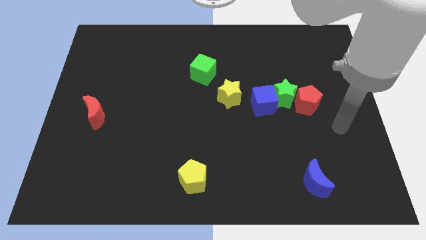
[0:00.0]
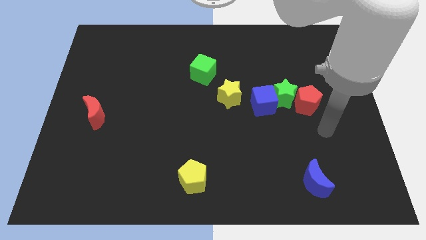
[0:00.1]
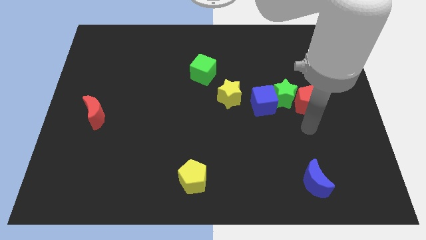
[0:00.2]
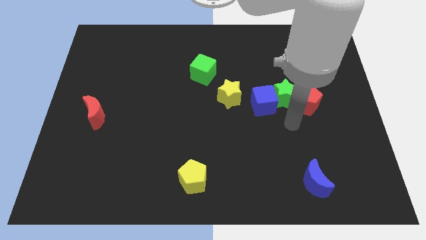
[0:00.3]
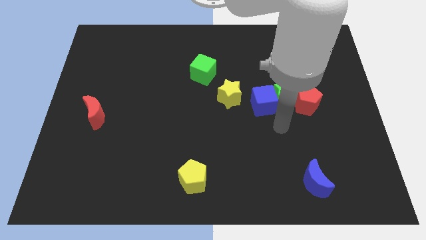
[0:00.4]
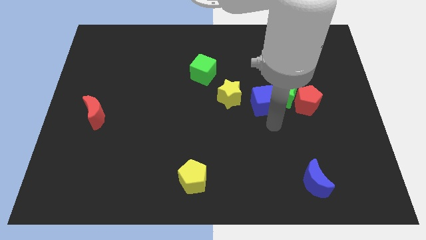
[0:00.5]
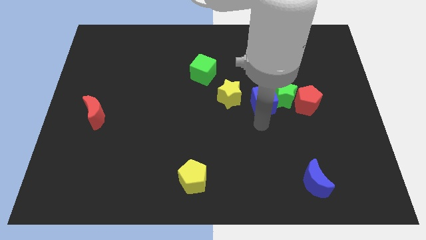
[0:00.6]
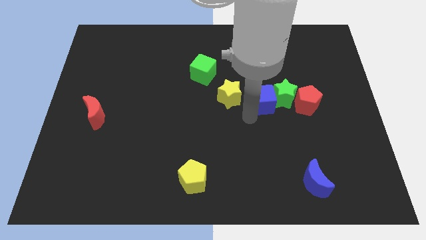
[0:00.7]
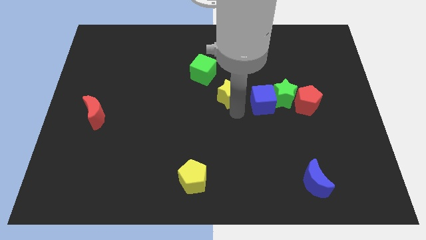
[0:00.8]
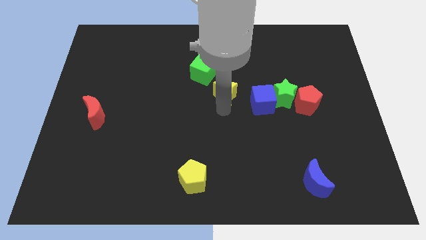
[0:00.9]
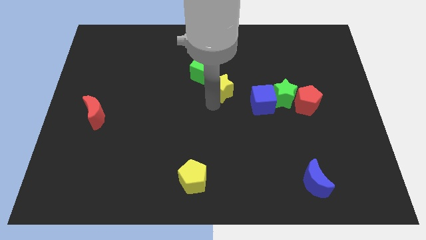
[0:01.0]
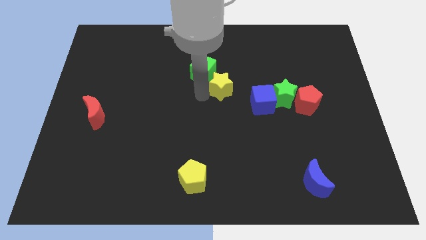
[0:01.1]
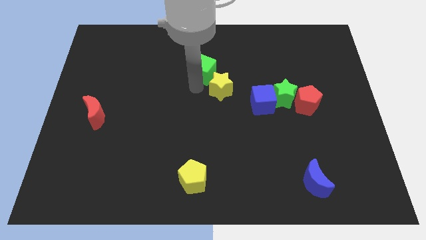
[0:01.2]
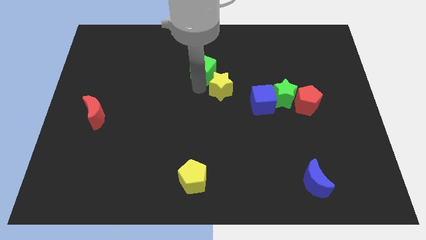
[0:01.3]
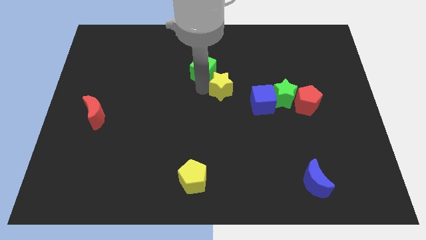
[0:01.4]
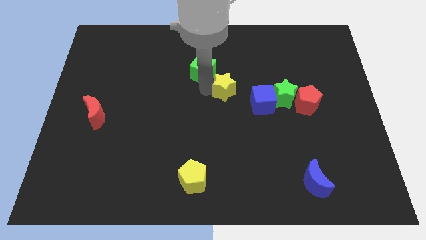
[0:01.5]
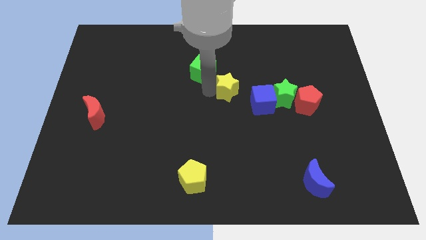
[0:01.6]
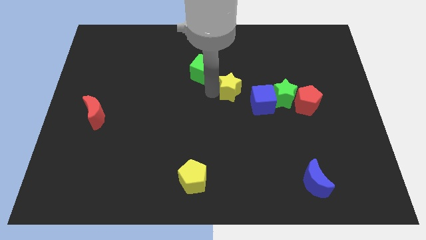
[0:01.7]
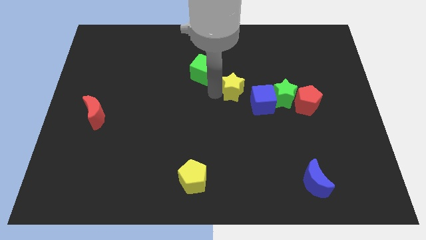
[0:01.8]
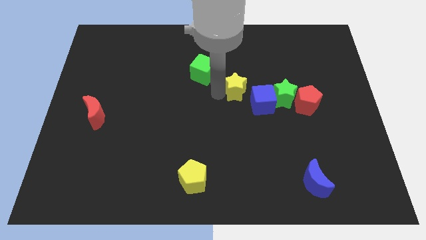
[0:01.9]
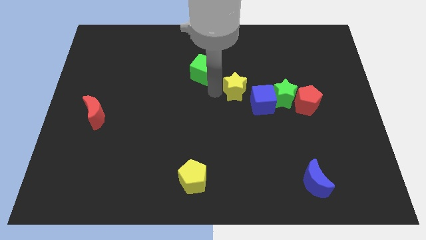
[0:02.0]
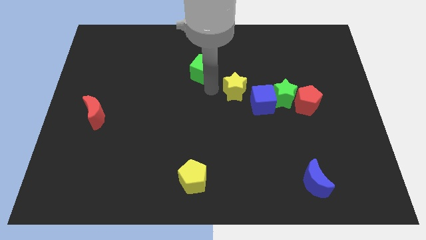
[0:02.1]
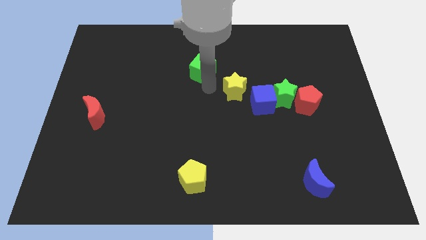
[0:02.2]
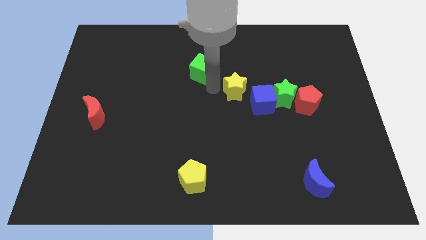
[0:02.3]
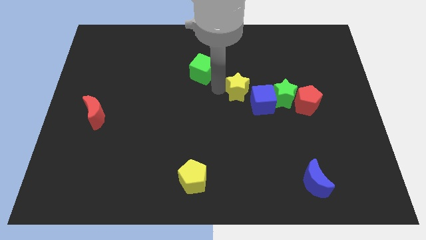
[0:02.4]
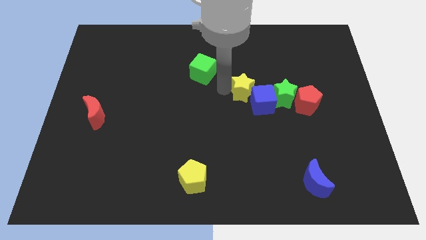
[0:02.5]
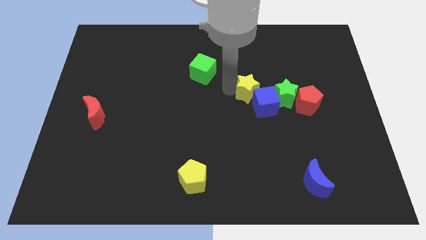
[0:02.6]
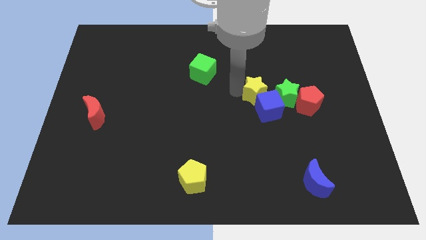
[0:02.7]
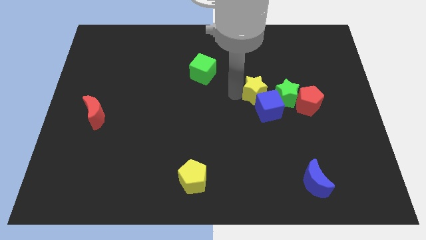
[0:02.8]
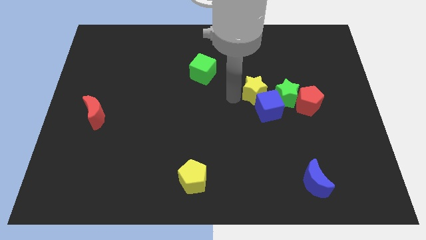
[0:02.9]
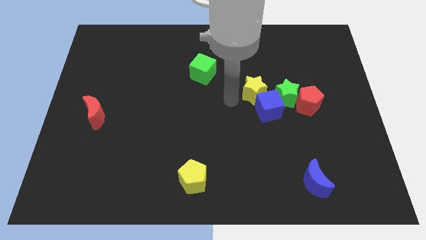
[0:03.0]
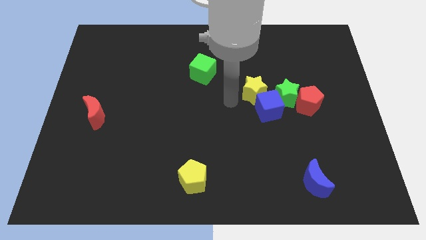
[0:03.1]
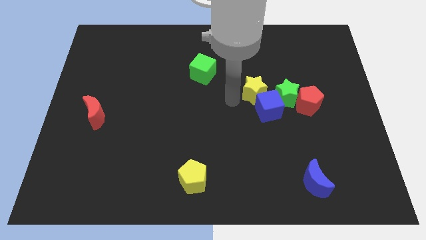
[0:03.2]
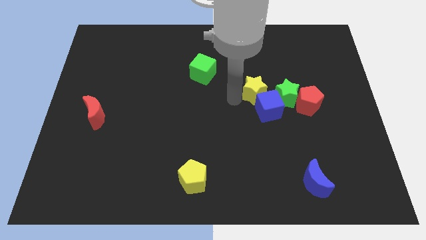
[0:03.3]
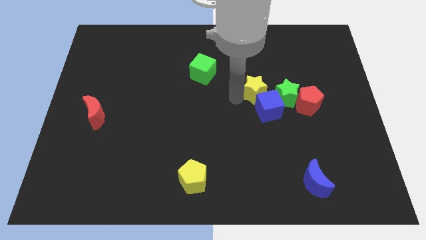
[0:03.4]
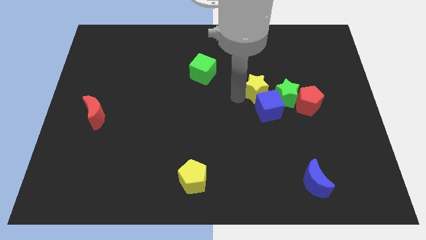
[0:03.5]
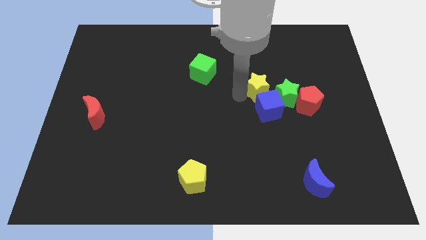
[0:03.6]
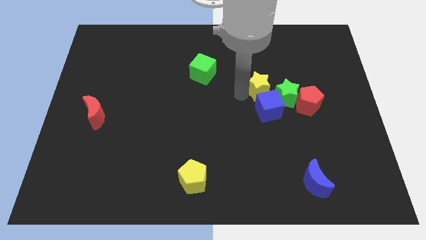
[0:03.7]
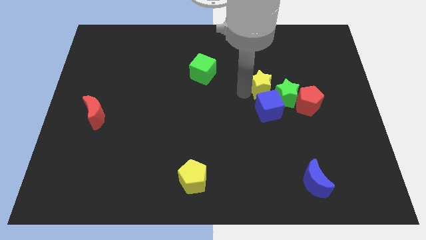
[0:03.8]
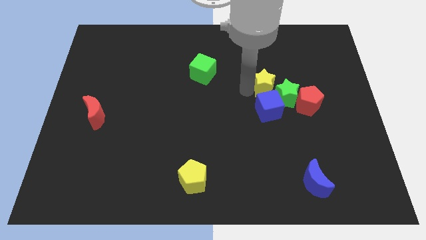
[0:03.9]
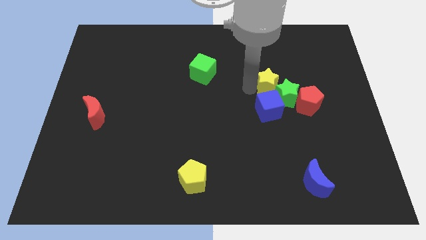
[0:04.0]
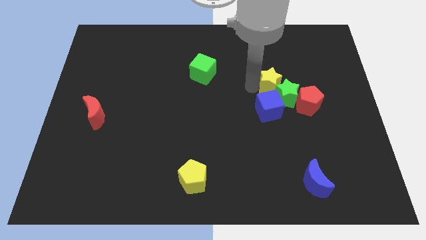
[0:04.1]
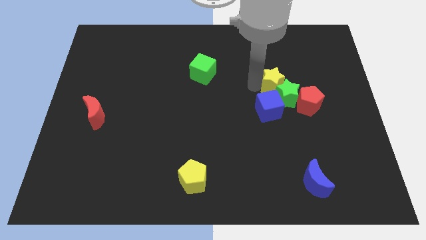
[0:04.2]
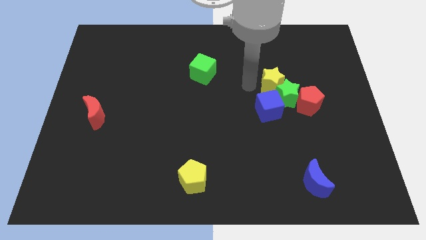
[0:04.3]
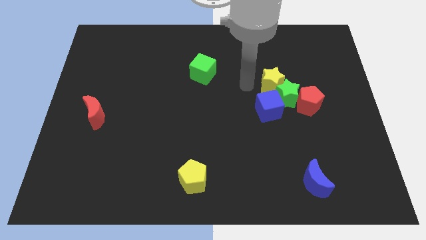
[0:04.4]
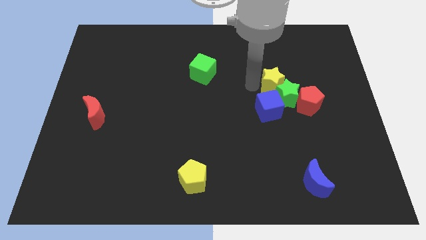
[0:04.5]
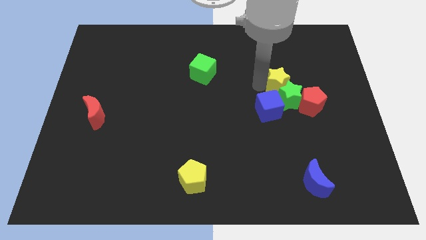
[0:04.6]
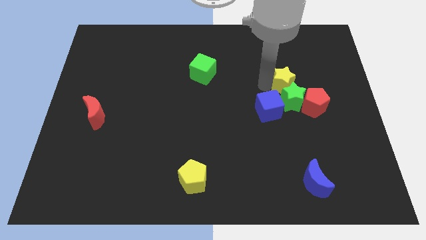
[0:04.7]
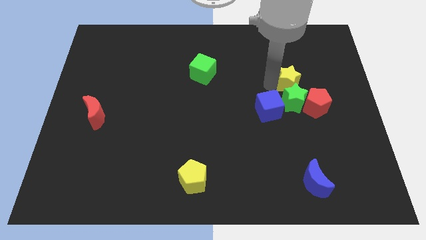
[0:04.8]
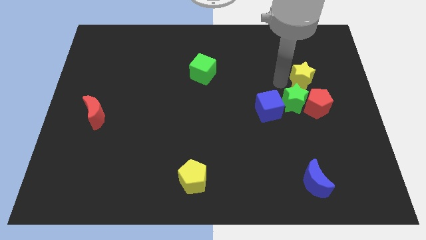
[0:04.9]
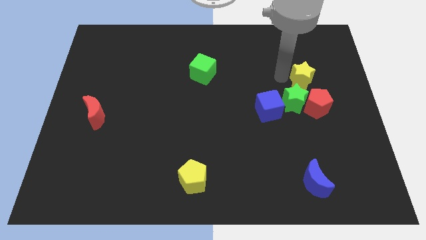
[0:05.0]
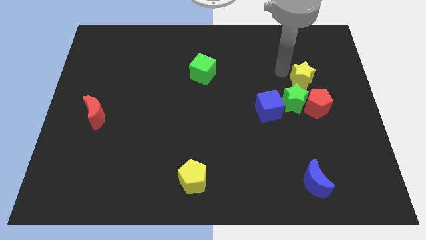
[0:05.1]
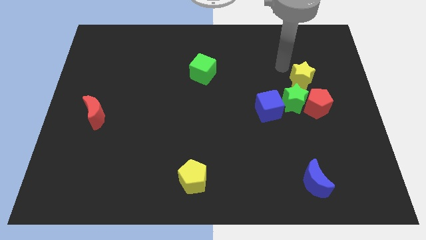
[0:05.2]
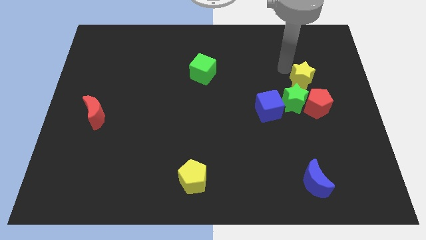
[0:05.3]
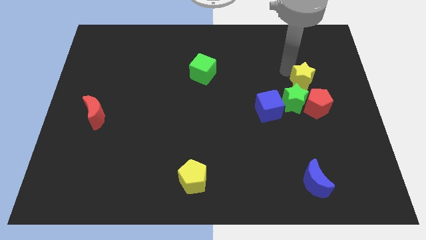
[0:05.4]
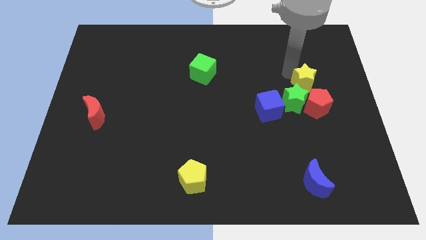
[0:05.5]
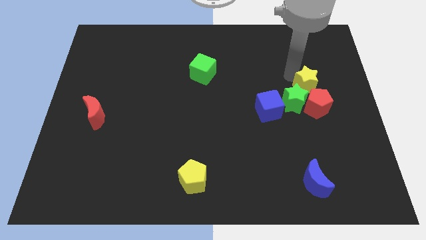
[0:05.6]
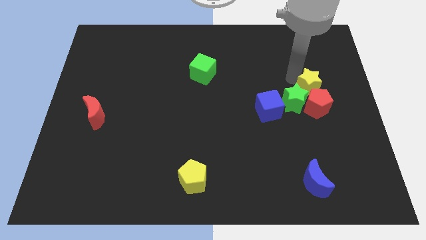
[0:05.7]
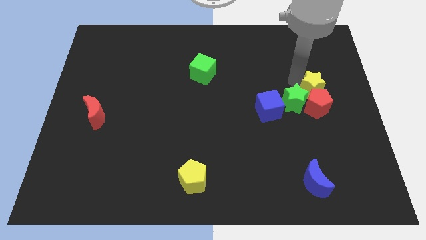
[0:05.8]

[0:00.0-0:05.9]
push the yellow star just right of the green star

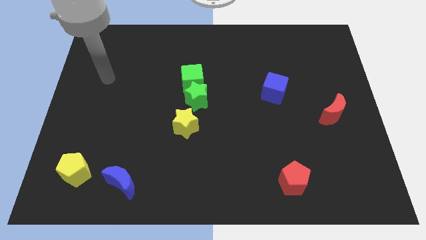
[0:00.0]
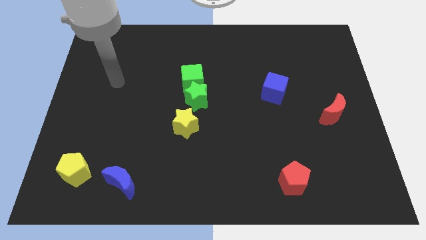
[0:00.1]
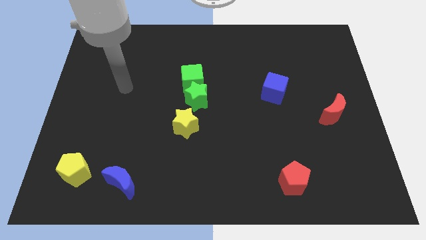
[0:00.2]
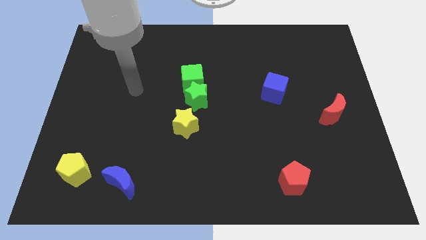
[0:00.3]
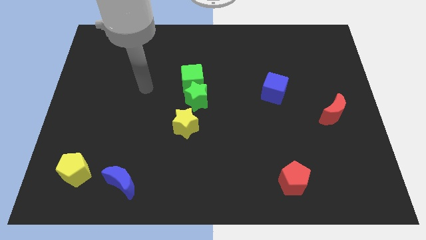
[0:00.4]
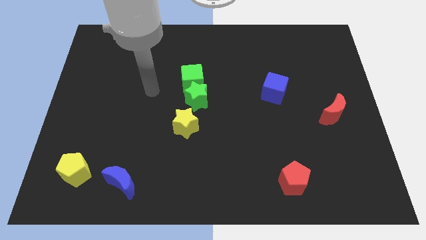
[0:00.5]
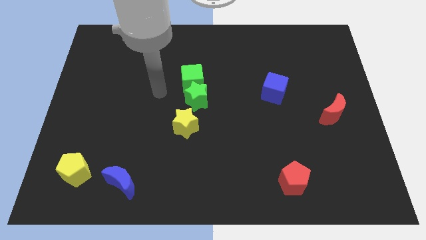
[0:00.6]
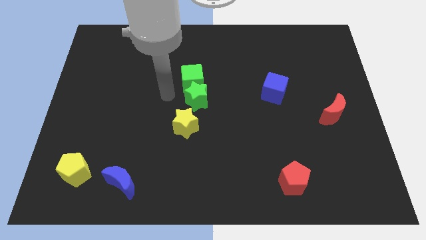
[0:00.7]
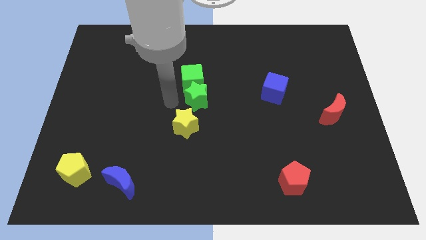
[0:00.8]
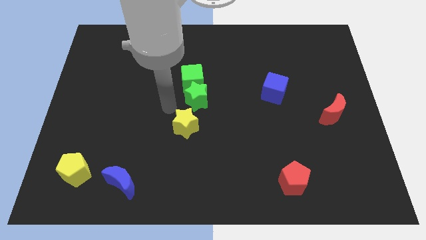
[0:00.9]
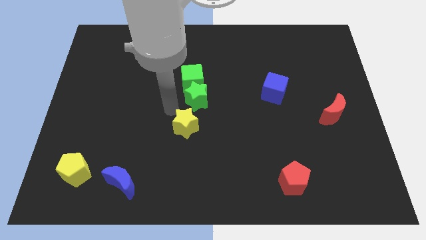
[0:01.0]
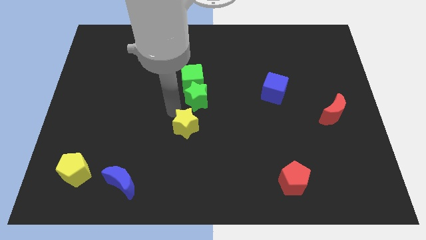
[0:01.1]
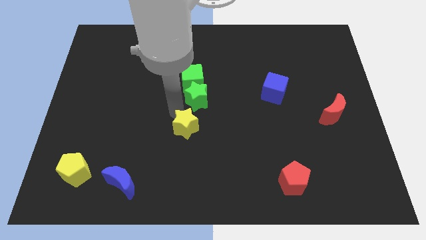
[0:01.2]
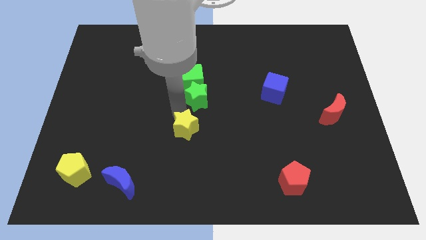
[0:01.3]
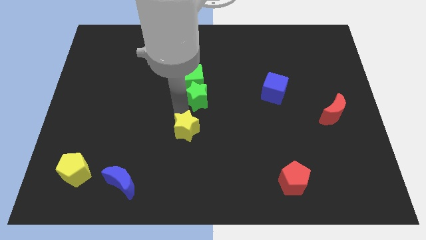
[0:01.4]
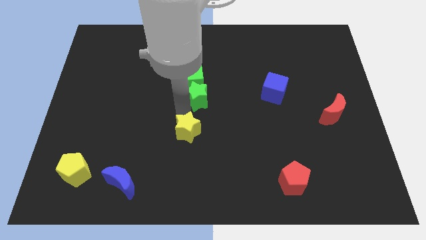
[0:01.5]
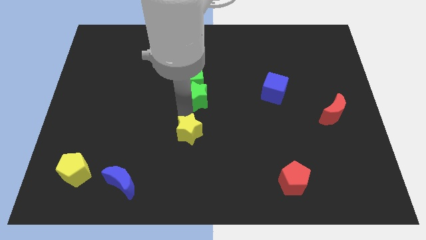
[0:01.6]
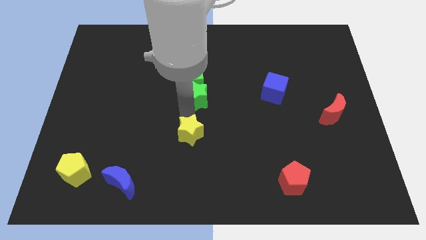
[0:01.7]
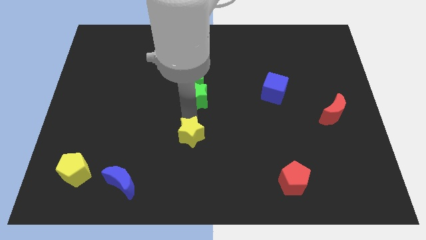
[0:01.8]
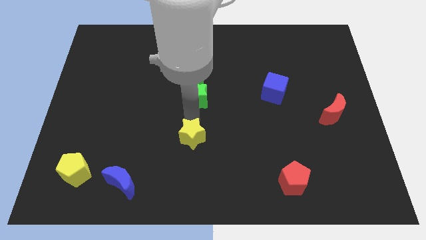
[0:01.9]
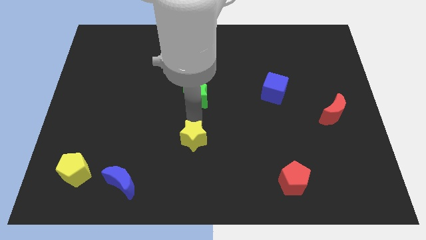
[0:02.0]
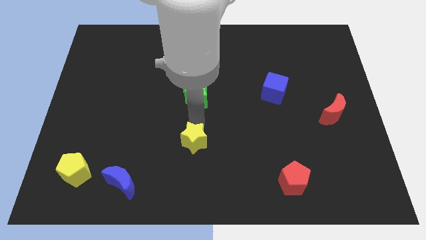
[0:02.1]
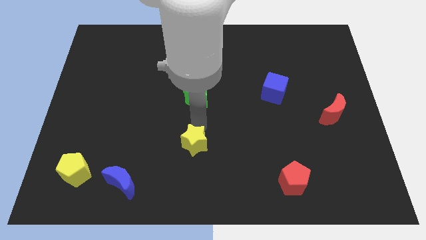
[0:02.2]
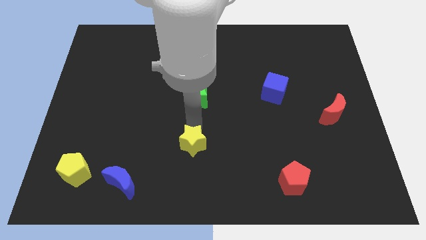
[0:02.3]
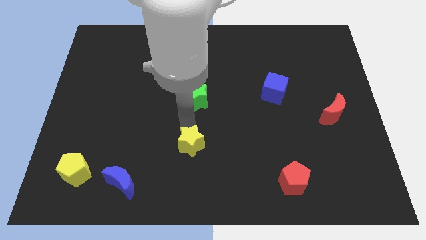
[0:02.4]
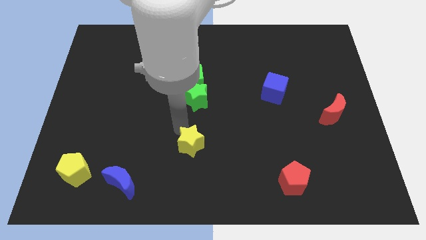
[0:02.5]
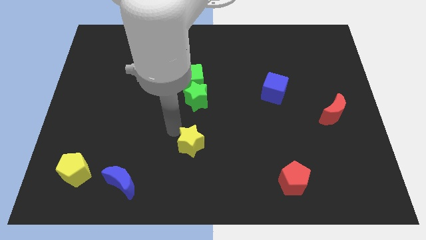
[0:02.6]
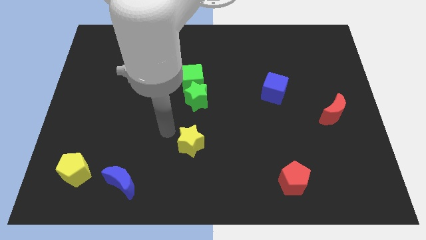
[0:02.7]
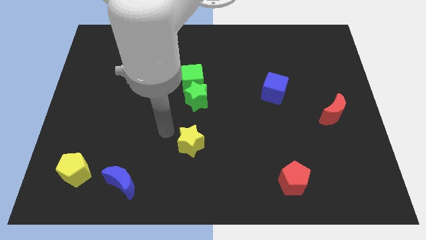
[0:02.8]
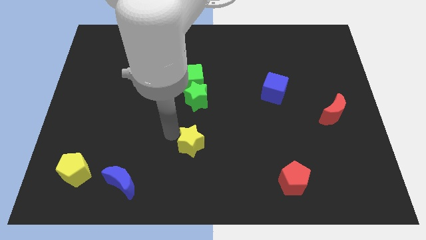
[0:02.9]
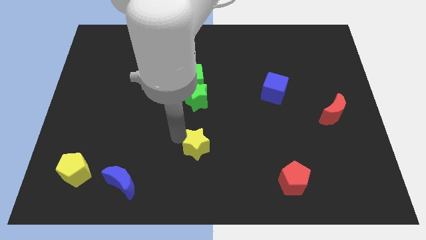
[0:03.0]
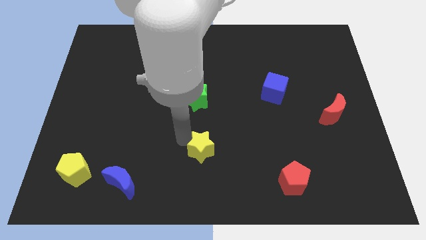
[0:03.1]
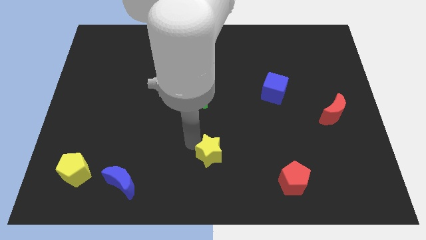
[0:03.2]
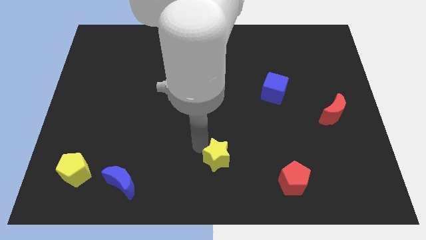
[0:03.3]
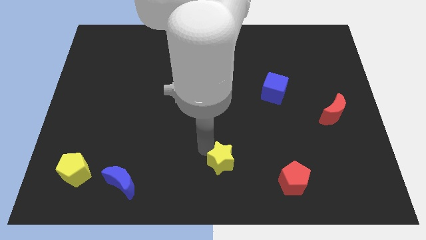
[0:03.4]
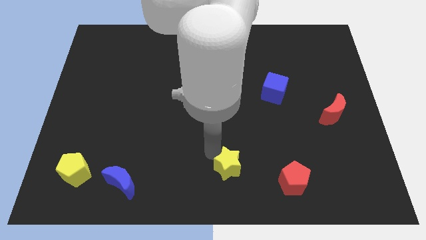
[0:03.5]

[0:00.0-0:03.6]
move the yellow star just left of the red pentagon
